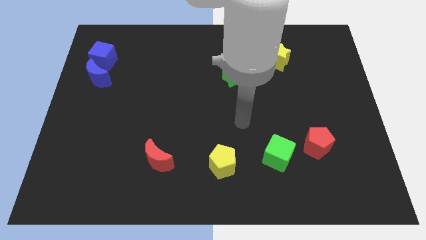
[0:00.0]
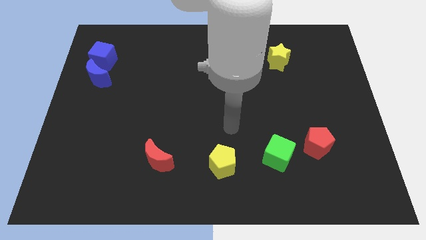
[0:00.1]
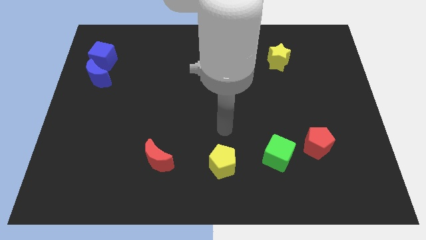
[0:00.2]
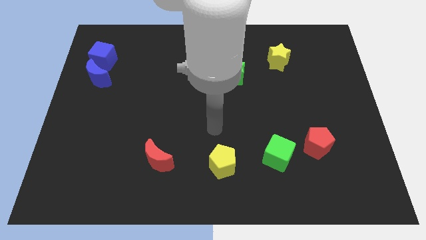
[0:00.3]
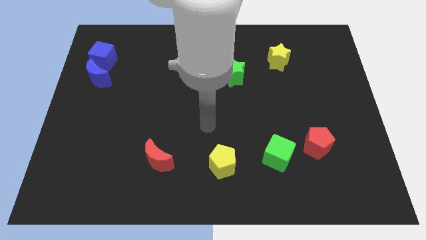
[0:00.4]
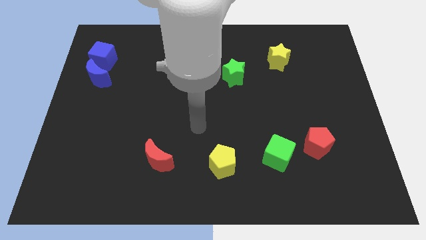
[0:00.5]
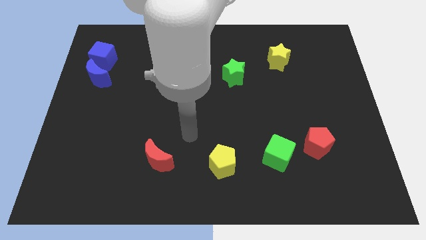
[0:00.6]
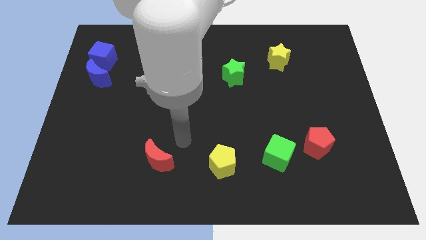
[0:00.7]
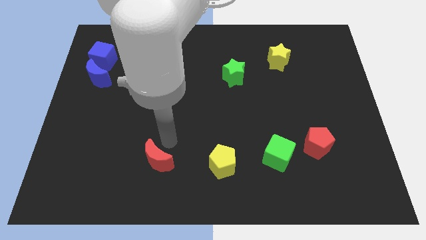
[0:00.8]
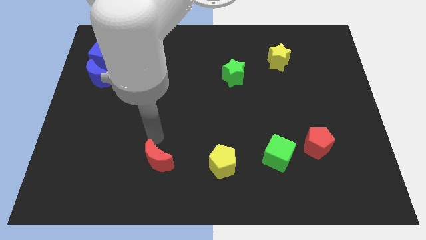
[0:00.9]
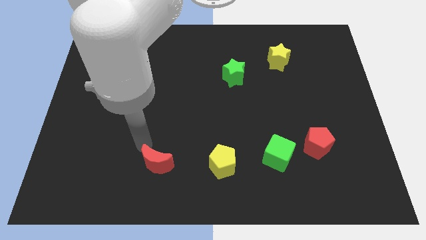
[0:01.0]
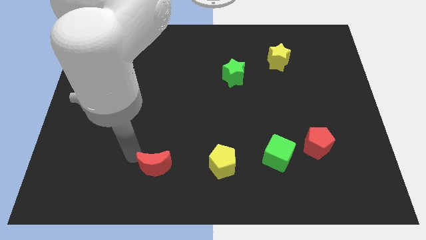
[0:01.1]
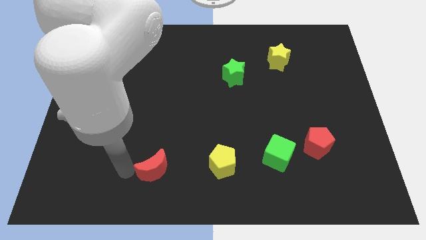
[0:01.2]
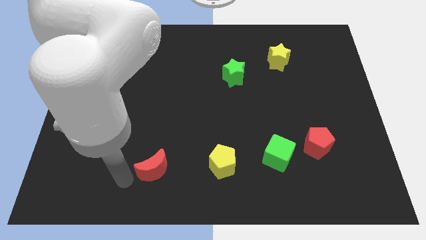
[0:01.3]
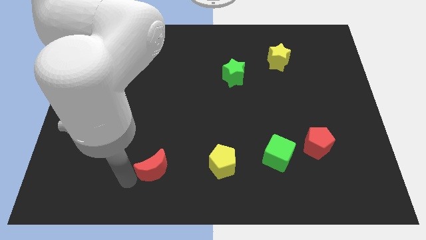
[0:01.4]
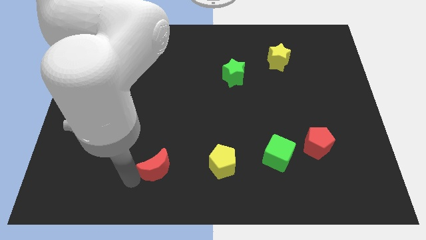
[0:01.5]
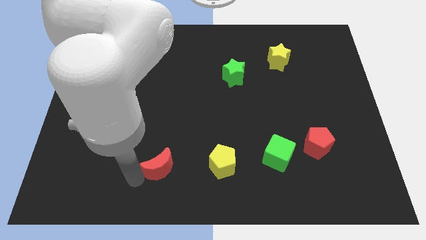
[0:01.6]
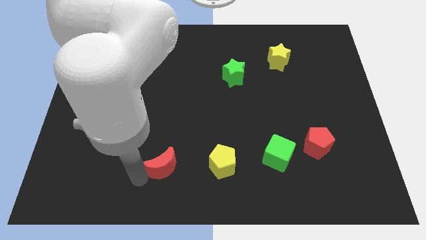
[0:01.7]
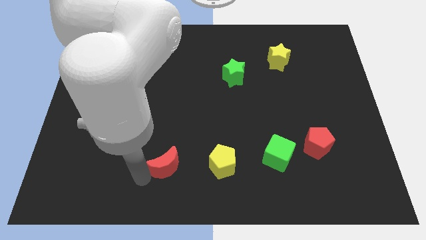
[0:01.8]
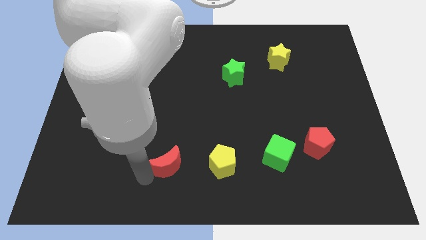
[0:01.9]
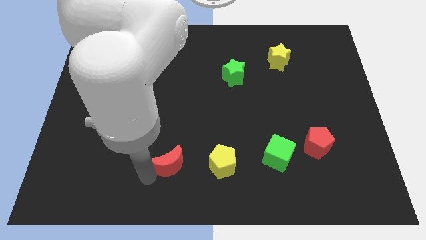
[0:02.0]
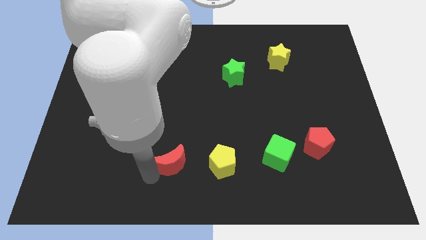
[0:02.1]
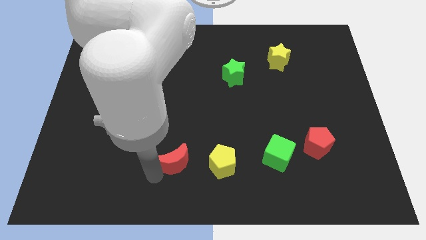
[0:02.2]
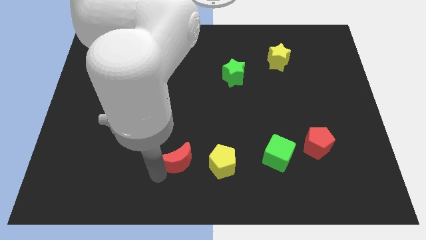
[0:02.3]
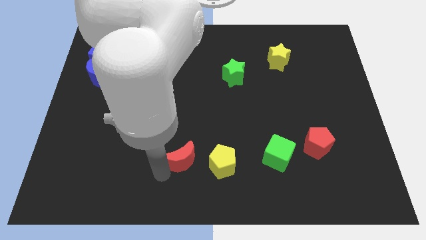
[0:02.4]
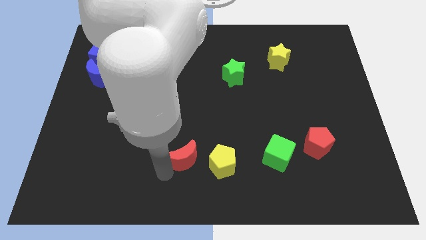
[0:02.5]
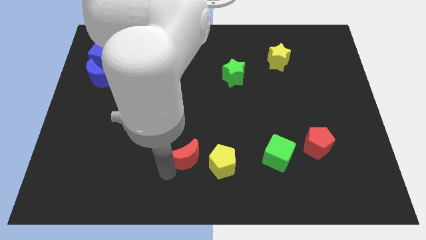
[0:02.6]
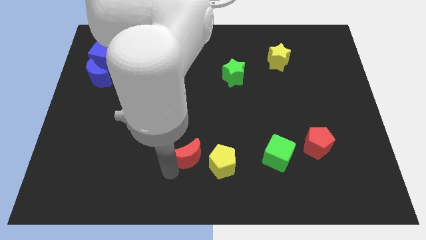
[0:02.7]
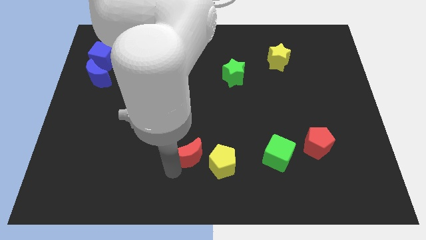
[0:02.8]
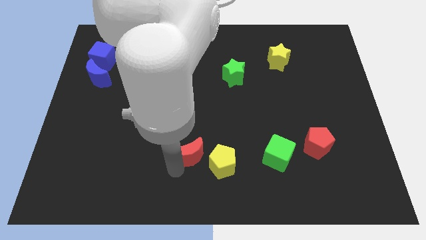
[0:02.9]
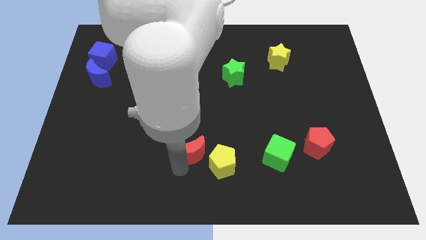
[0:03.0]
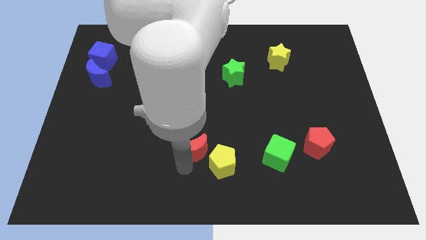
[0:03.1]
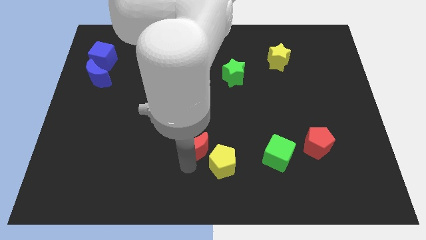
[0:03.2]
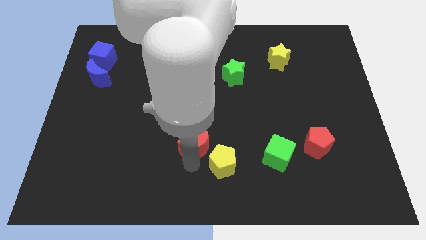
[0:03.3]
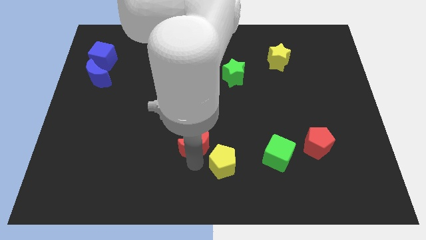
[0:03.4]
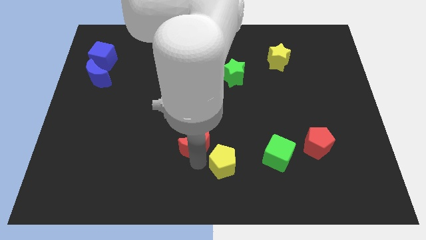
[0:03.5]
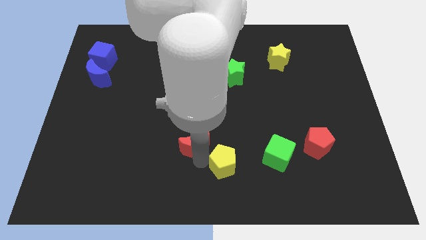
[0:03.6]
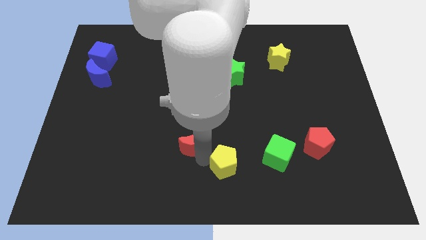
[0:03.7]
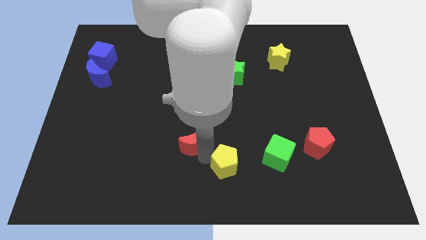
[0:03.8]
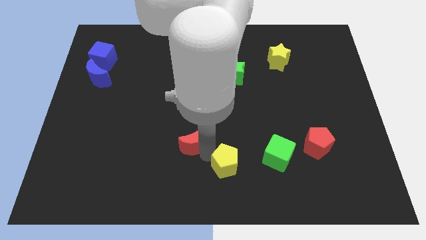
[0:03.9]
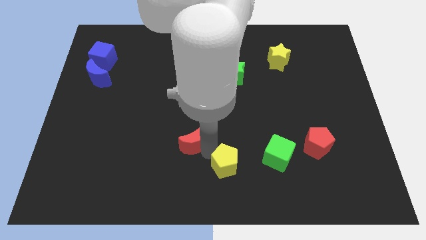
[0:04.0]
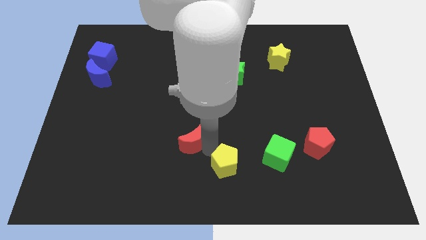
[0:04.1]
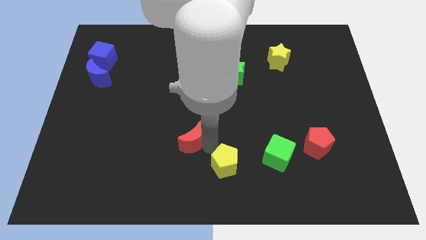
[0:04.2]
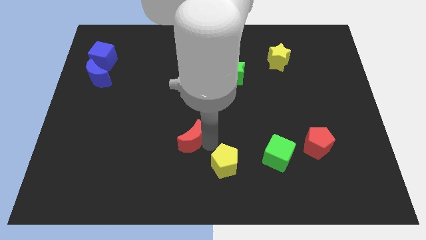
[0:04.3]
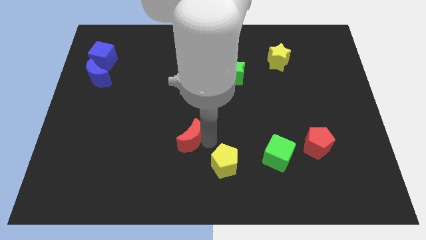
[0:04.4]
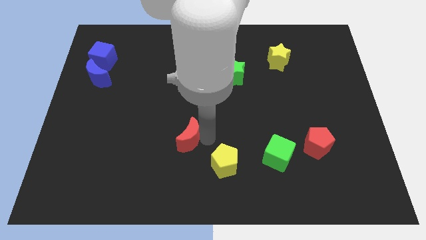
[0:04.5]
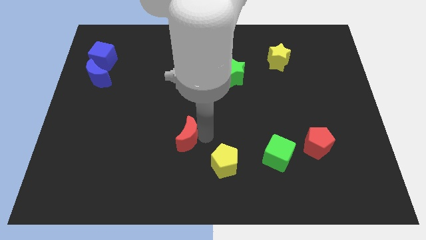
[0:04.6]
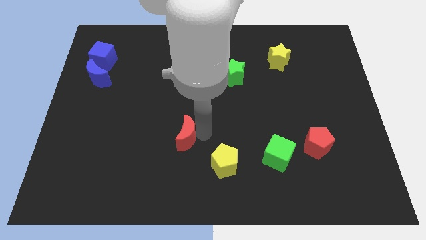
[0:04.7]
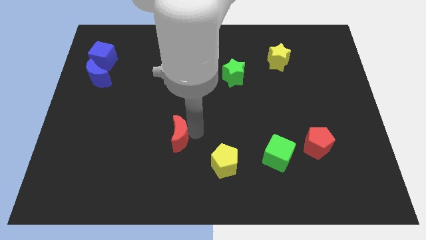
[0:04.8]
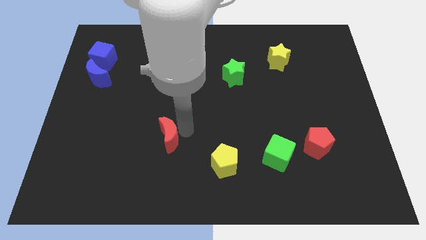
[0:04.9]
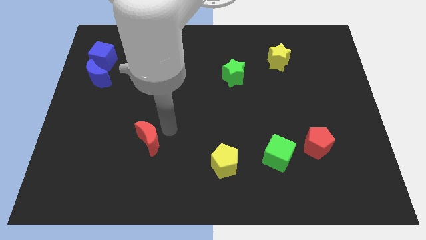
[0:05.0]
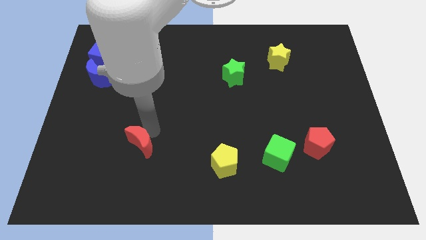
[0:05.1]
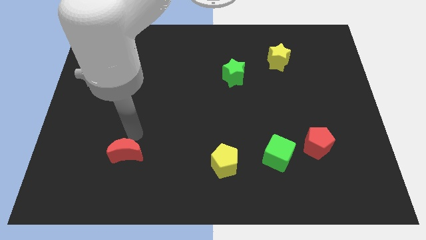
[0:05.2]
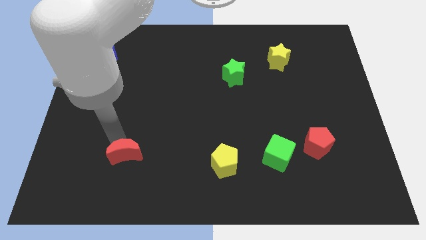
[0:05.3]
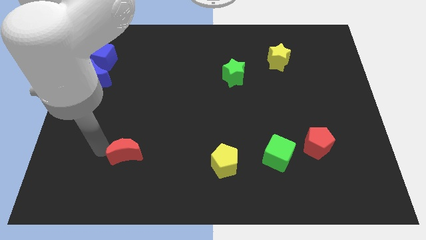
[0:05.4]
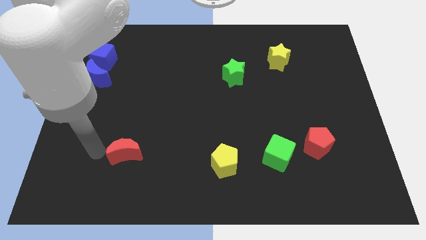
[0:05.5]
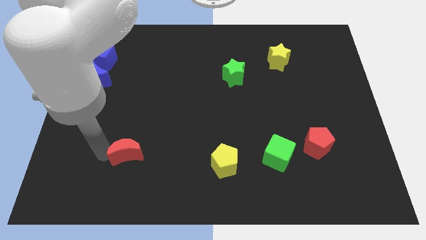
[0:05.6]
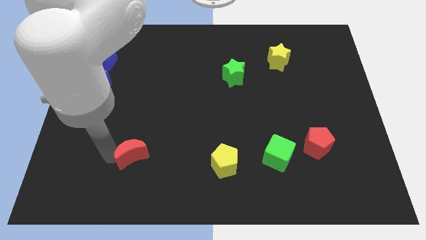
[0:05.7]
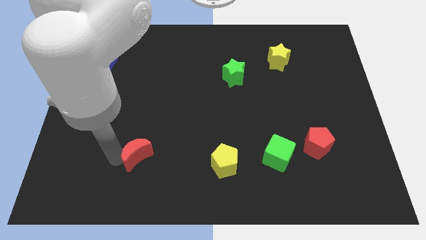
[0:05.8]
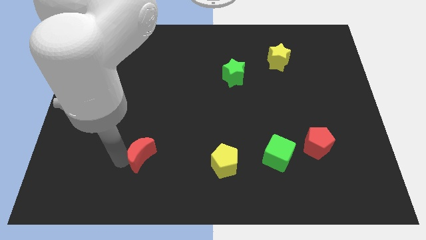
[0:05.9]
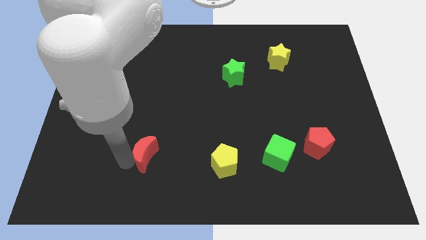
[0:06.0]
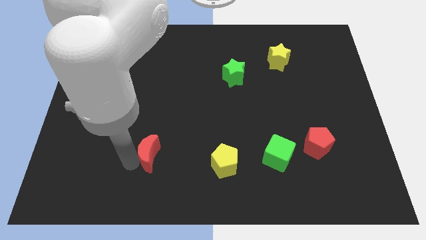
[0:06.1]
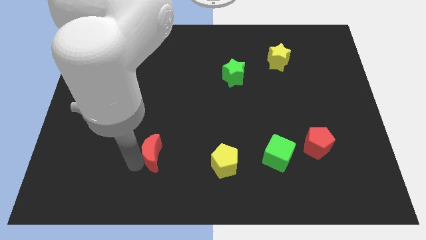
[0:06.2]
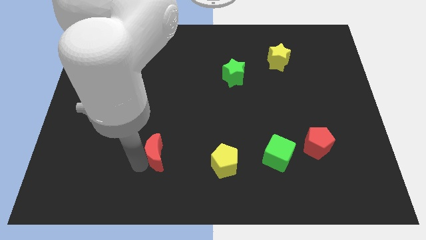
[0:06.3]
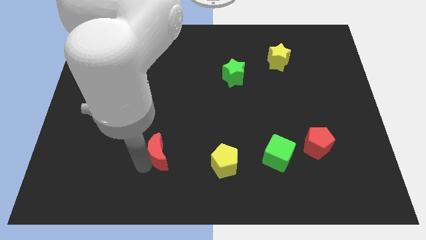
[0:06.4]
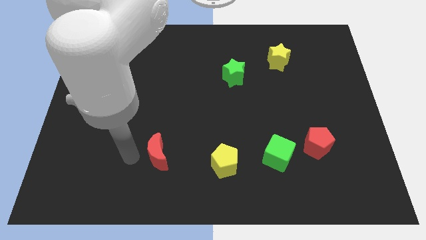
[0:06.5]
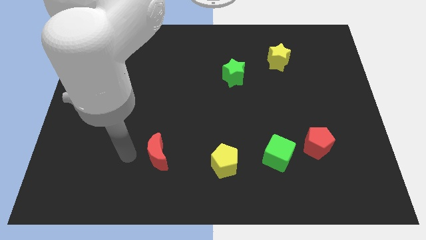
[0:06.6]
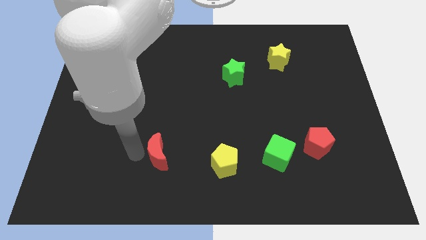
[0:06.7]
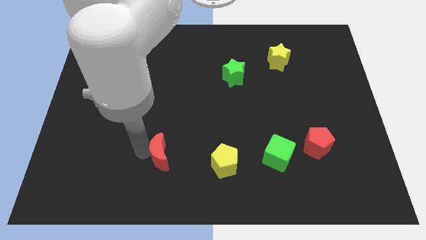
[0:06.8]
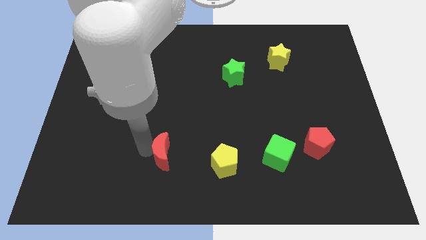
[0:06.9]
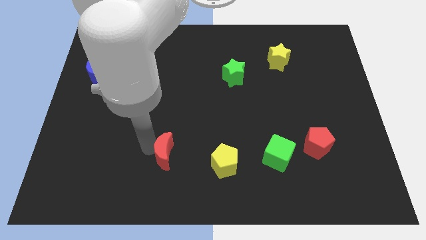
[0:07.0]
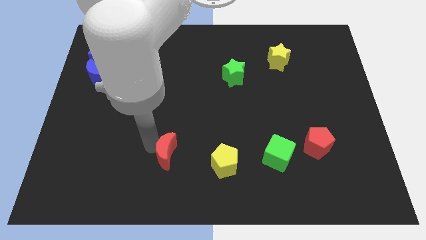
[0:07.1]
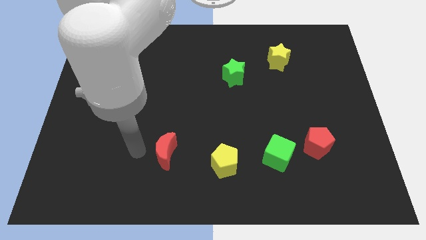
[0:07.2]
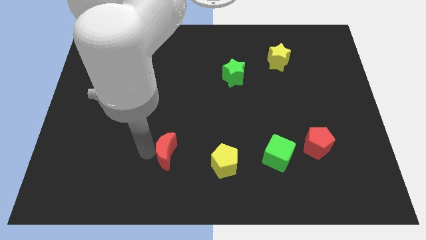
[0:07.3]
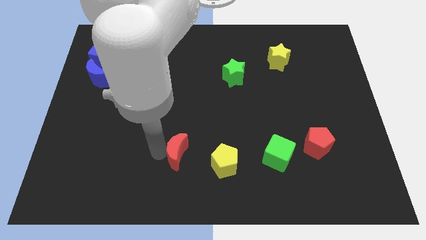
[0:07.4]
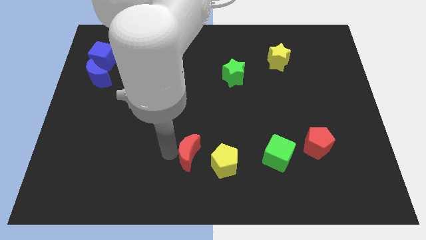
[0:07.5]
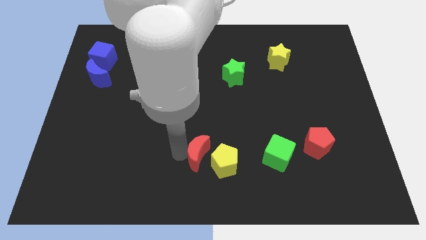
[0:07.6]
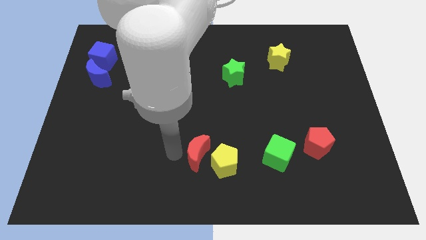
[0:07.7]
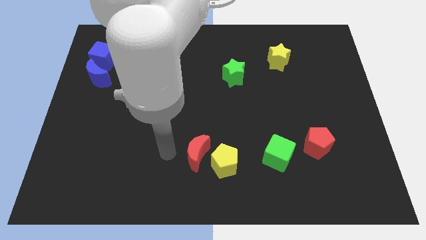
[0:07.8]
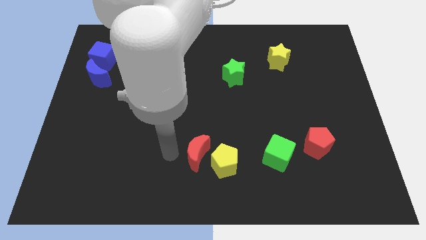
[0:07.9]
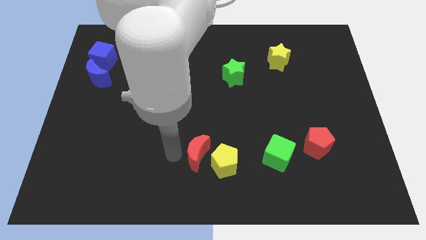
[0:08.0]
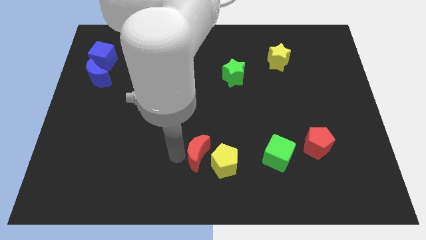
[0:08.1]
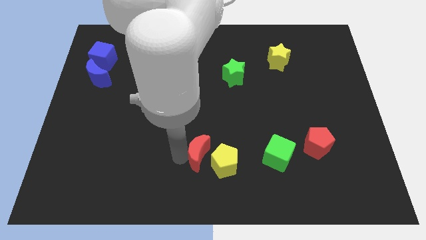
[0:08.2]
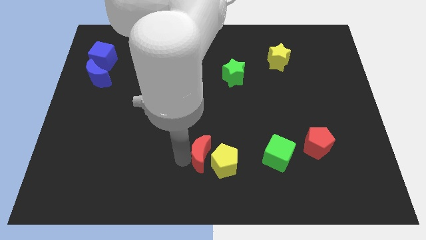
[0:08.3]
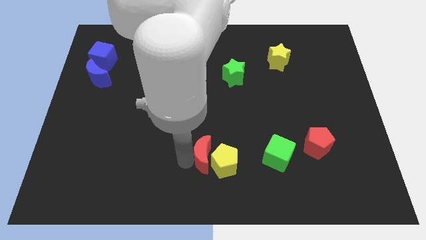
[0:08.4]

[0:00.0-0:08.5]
slide the red moon to the left side of the green cube
